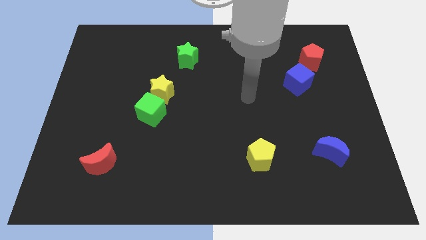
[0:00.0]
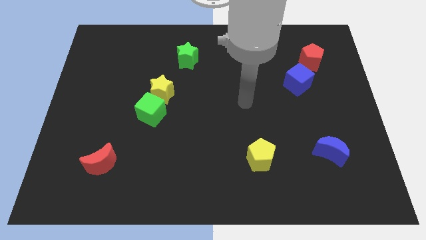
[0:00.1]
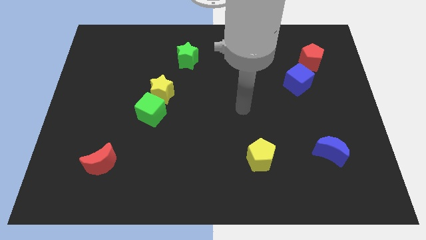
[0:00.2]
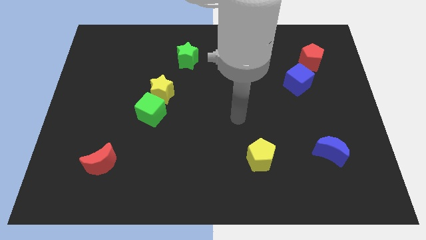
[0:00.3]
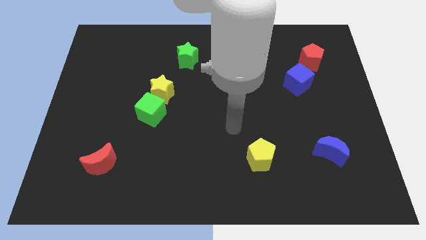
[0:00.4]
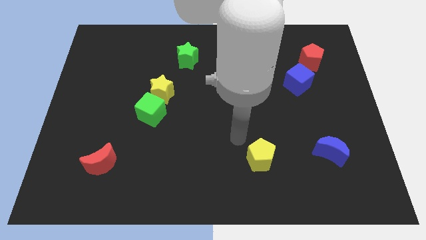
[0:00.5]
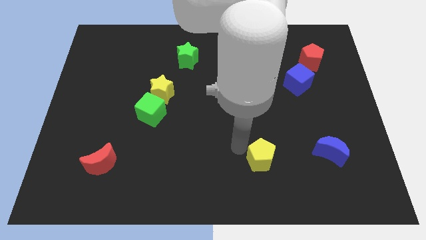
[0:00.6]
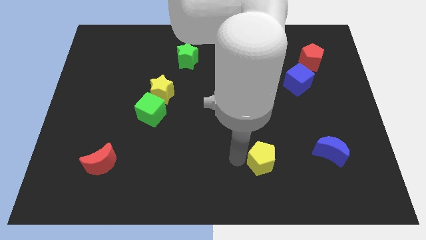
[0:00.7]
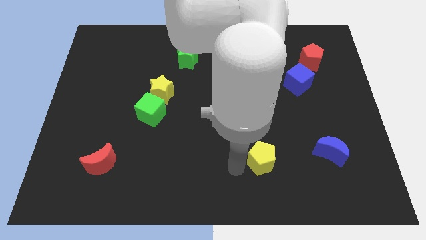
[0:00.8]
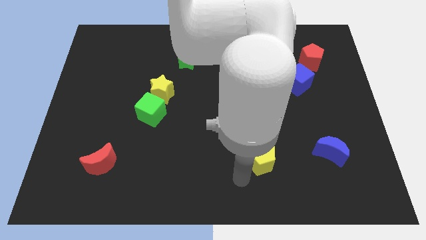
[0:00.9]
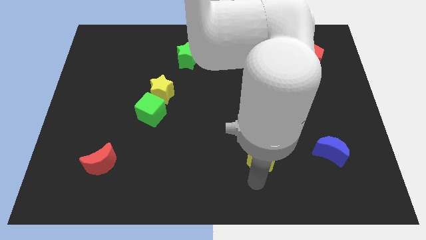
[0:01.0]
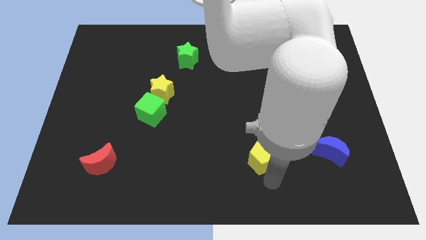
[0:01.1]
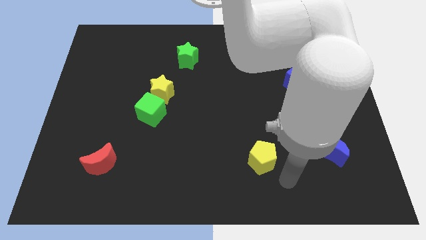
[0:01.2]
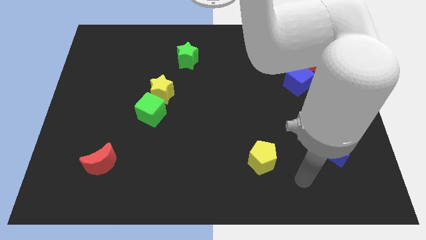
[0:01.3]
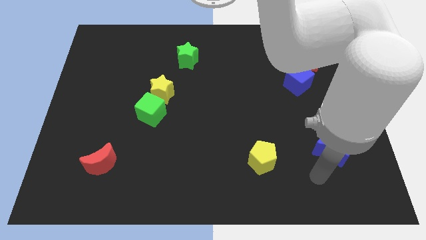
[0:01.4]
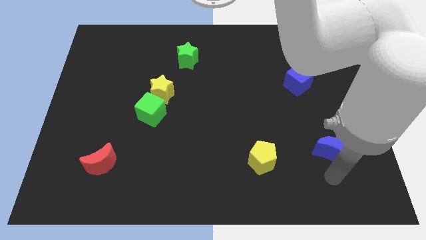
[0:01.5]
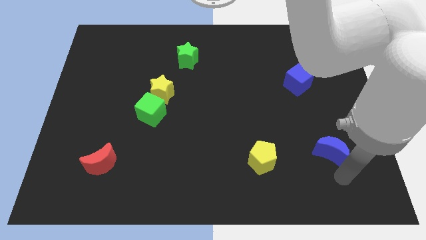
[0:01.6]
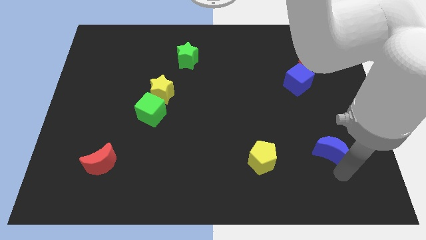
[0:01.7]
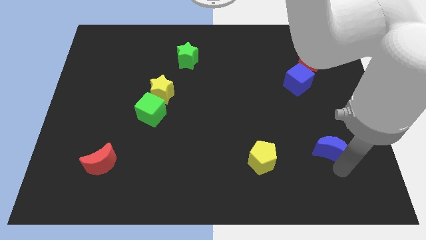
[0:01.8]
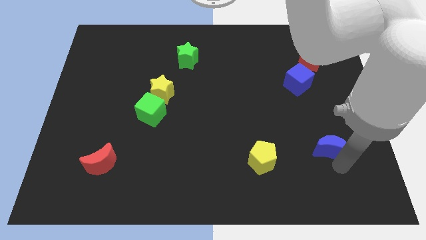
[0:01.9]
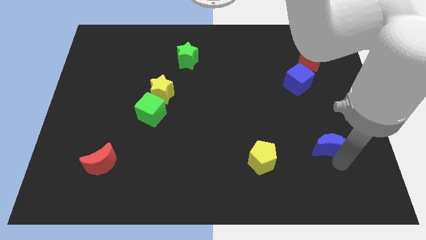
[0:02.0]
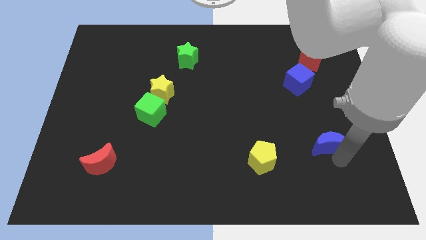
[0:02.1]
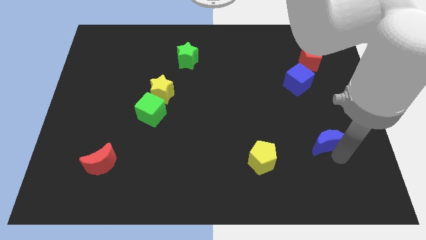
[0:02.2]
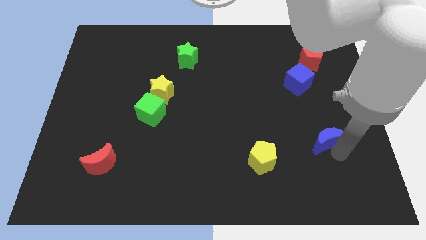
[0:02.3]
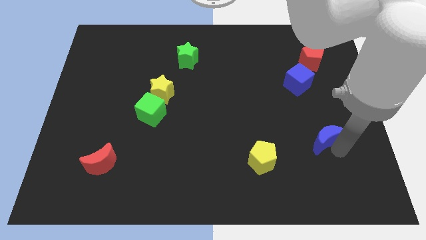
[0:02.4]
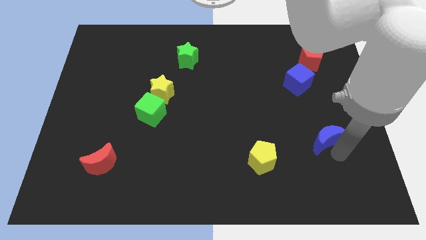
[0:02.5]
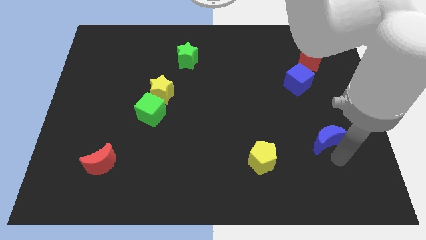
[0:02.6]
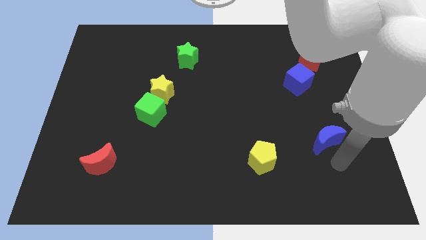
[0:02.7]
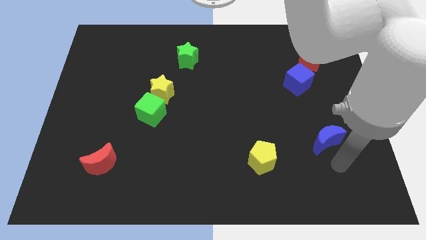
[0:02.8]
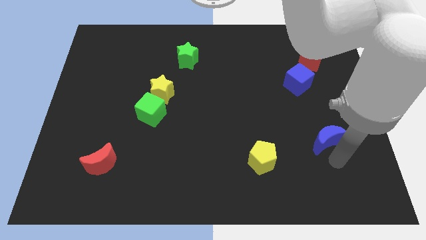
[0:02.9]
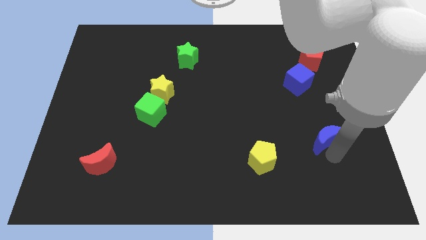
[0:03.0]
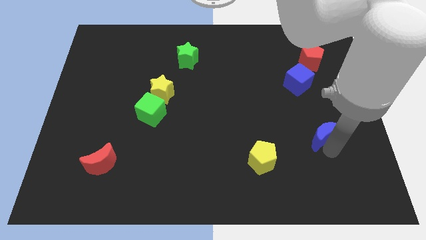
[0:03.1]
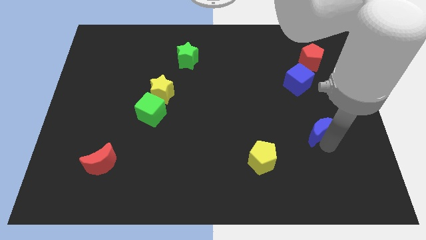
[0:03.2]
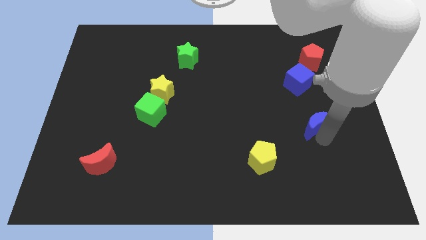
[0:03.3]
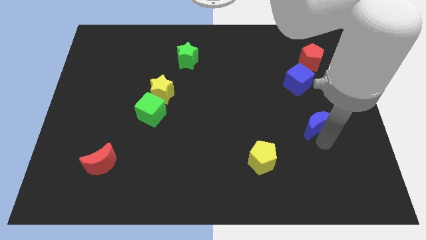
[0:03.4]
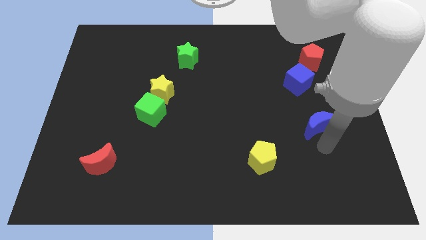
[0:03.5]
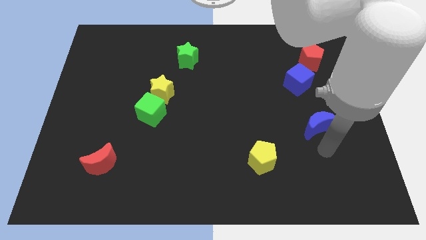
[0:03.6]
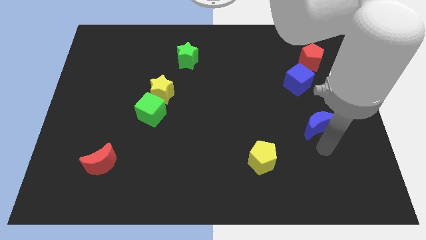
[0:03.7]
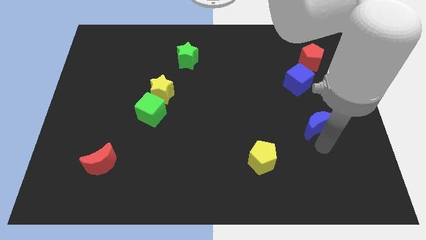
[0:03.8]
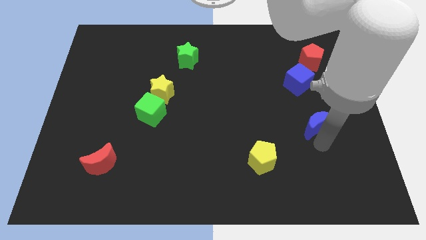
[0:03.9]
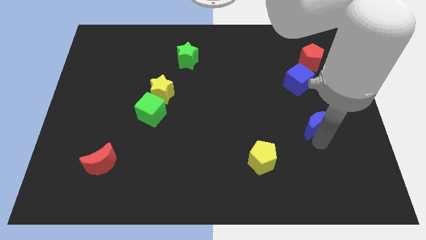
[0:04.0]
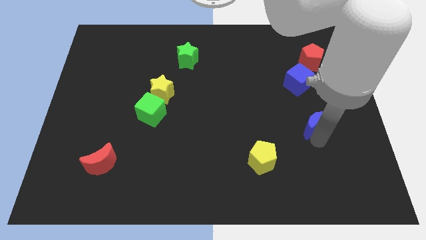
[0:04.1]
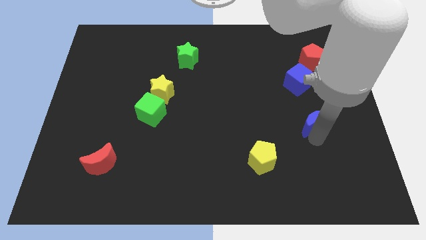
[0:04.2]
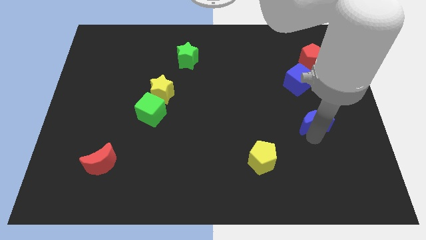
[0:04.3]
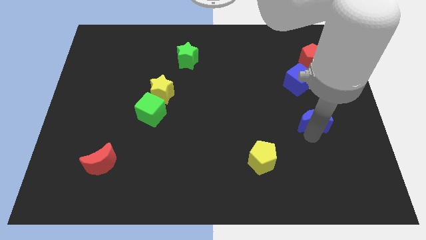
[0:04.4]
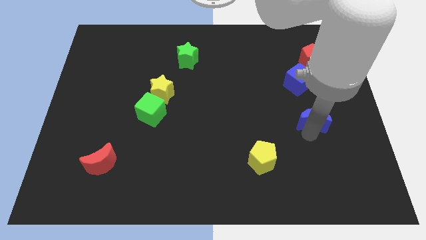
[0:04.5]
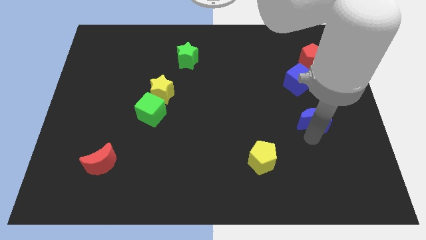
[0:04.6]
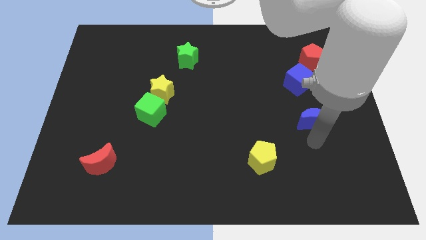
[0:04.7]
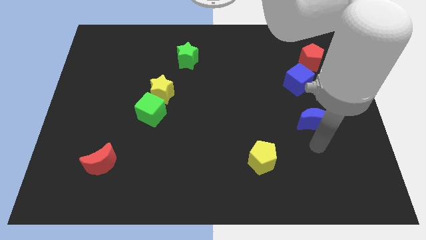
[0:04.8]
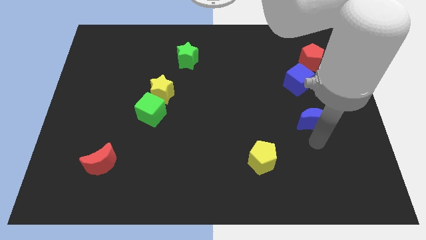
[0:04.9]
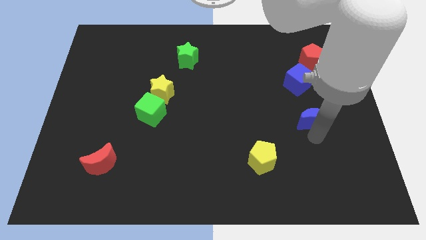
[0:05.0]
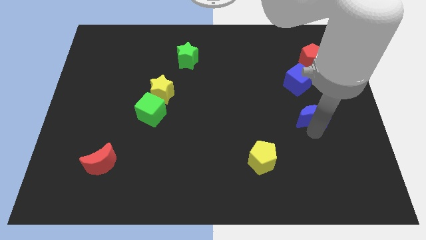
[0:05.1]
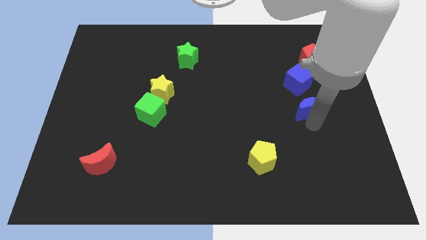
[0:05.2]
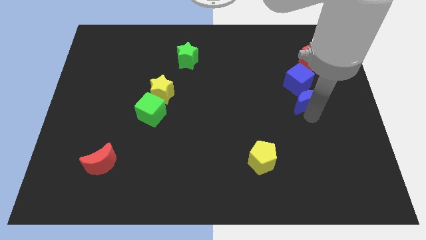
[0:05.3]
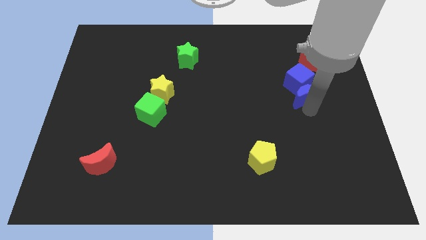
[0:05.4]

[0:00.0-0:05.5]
push the blue moon towards the blue cube

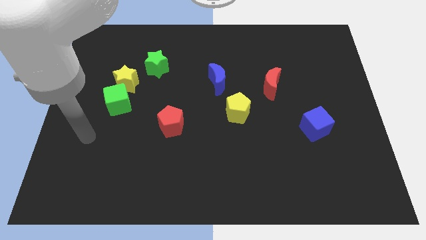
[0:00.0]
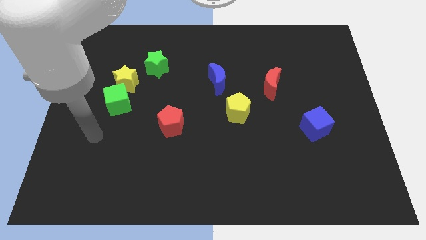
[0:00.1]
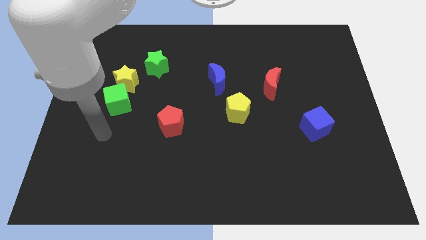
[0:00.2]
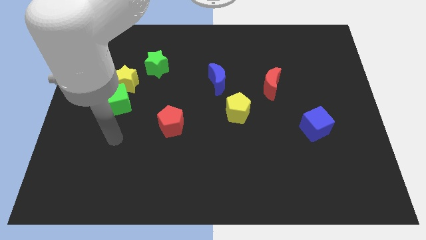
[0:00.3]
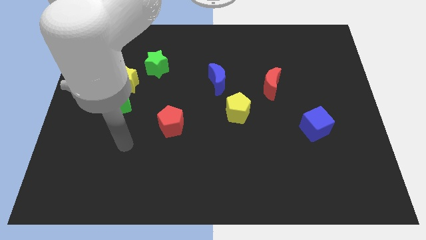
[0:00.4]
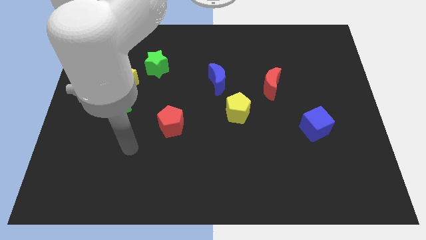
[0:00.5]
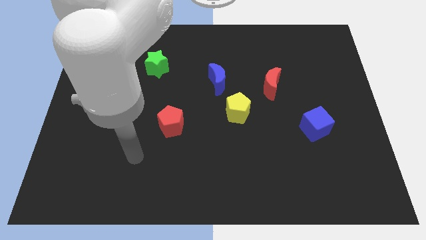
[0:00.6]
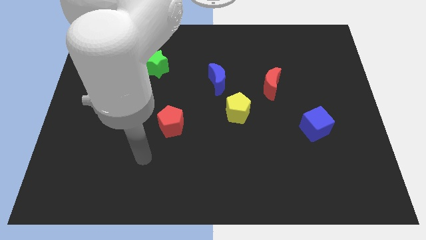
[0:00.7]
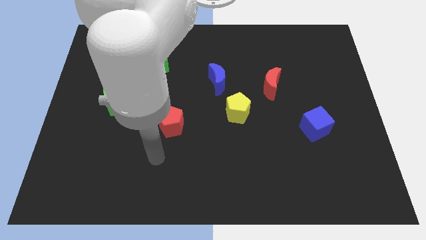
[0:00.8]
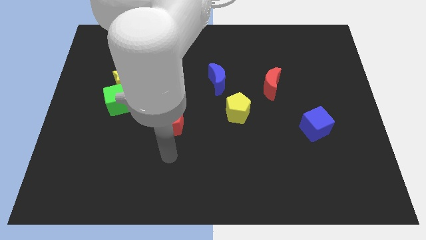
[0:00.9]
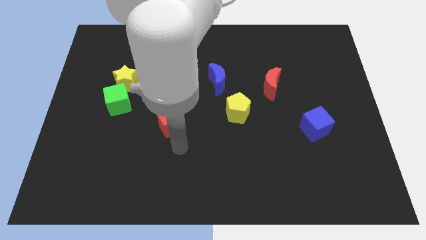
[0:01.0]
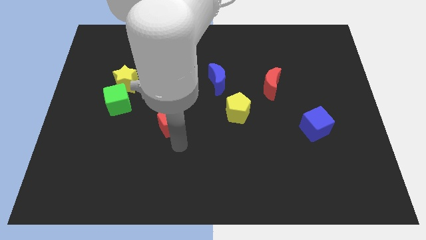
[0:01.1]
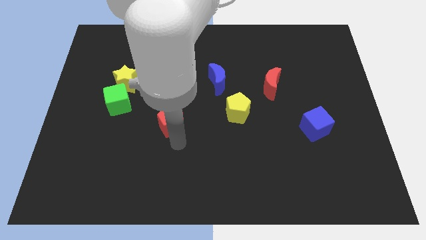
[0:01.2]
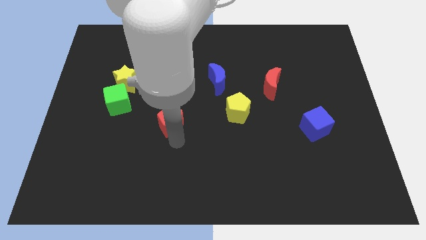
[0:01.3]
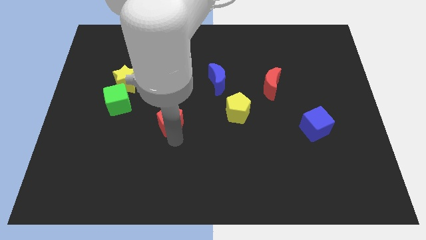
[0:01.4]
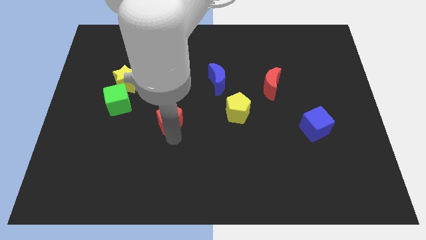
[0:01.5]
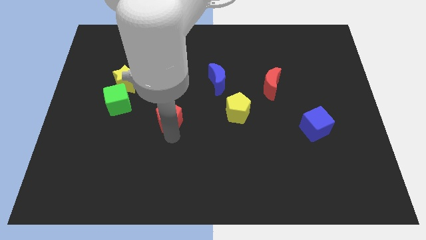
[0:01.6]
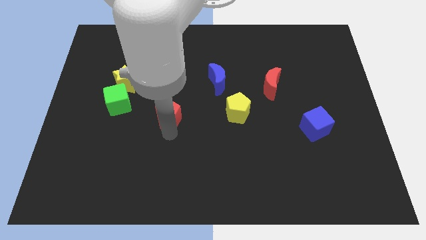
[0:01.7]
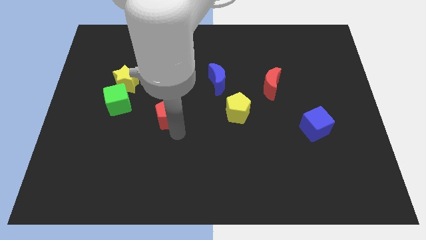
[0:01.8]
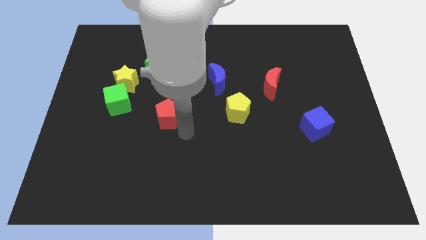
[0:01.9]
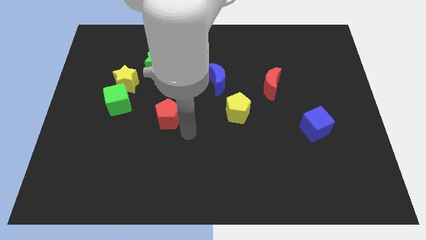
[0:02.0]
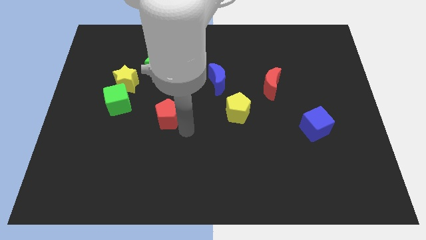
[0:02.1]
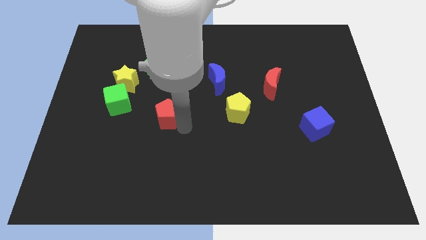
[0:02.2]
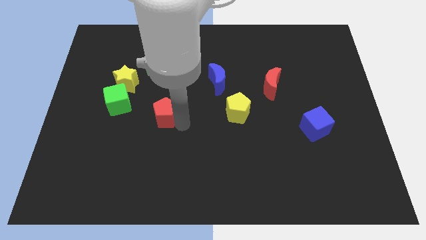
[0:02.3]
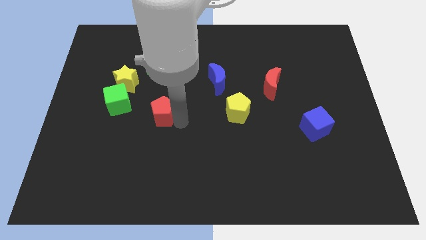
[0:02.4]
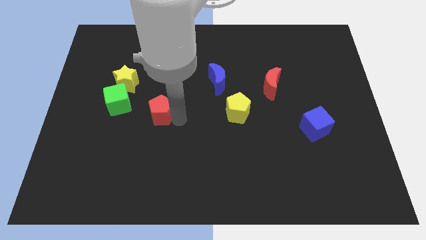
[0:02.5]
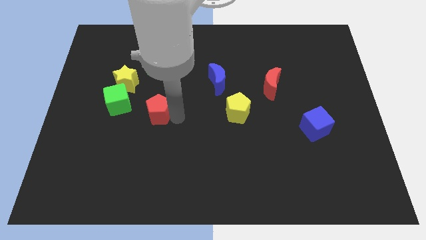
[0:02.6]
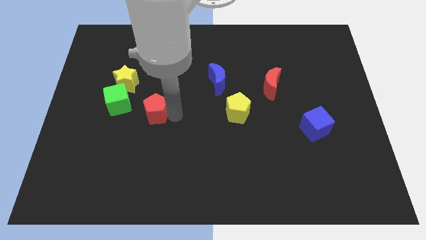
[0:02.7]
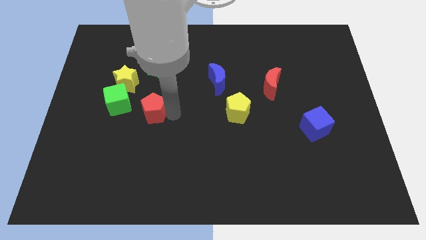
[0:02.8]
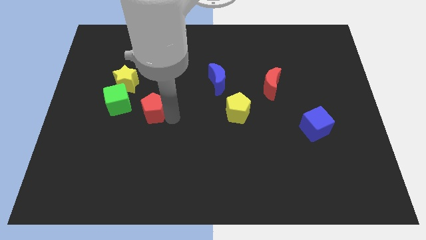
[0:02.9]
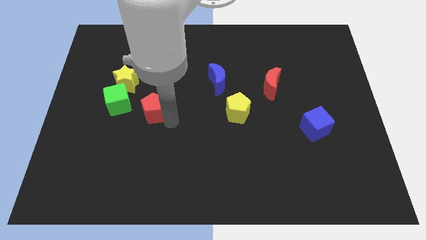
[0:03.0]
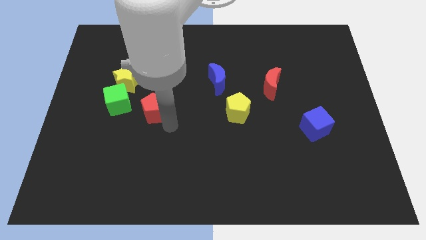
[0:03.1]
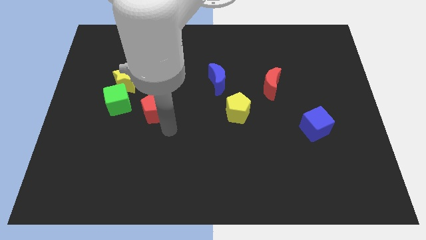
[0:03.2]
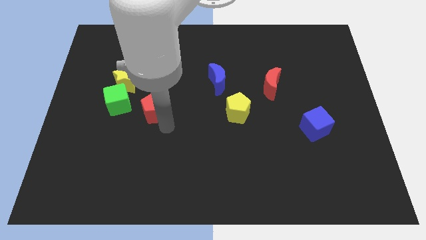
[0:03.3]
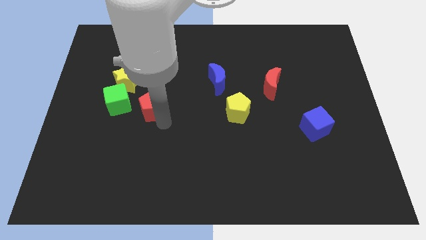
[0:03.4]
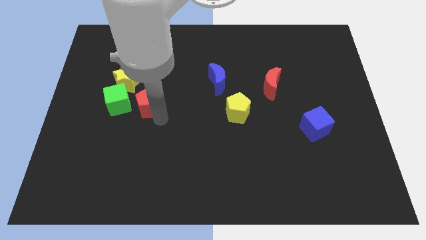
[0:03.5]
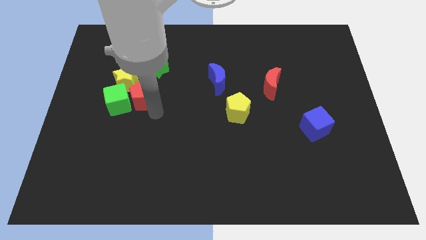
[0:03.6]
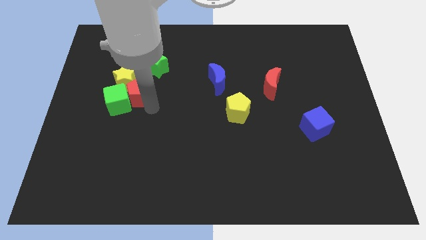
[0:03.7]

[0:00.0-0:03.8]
move the red pentagon towards the yellow star
